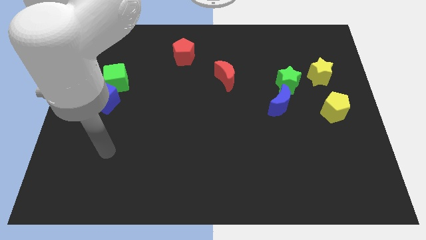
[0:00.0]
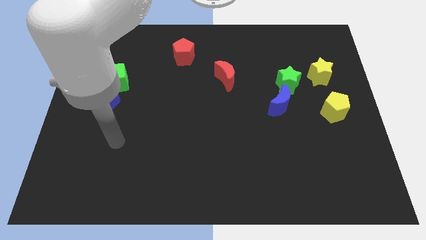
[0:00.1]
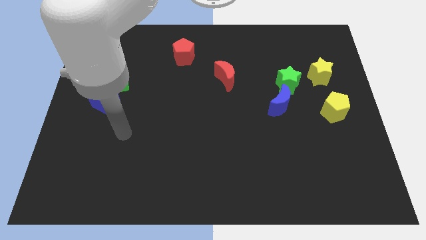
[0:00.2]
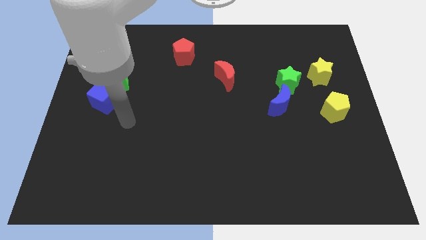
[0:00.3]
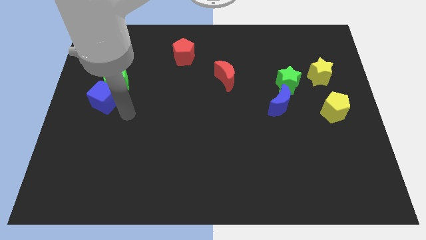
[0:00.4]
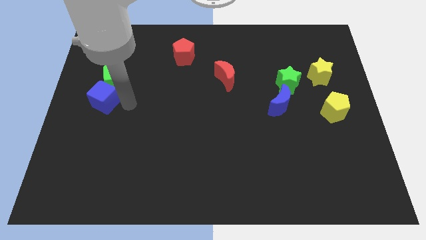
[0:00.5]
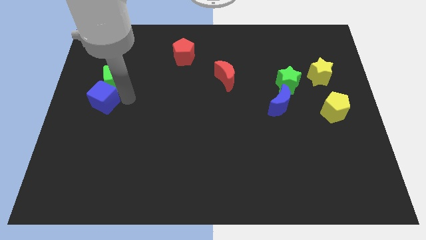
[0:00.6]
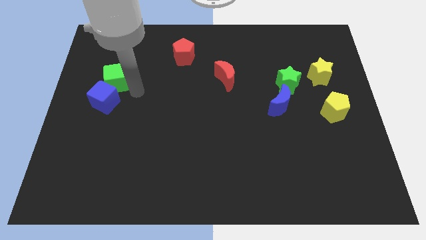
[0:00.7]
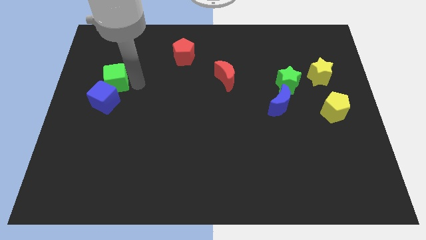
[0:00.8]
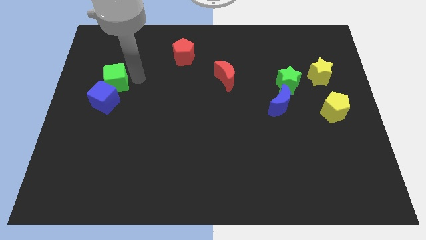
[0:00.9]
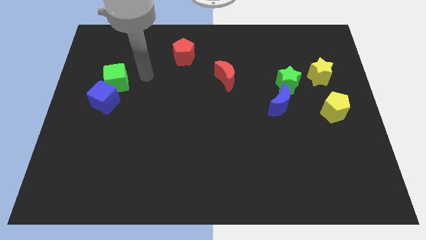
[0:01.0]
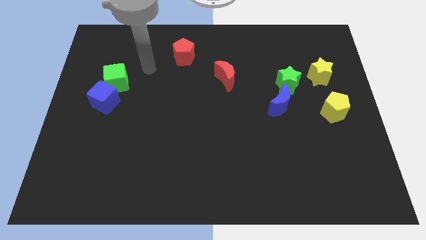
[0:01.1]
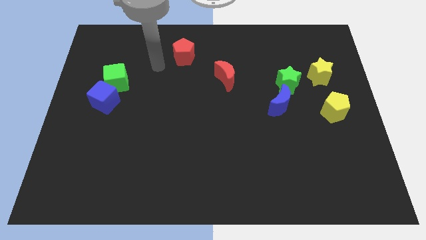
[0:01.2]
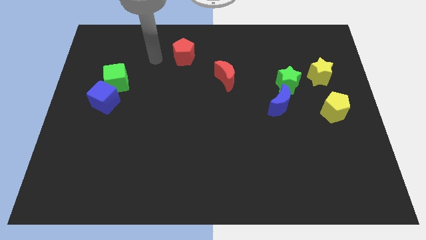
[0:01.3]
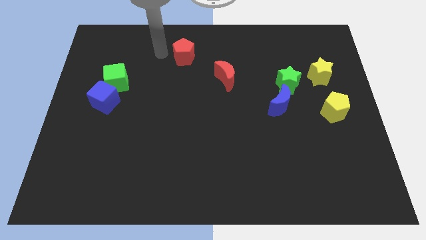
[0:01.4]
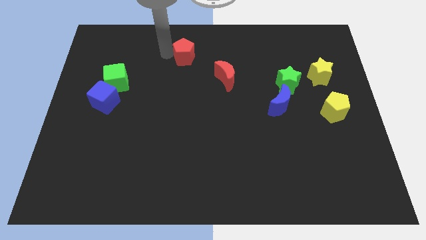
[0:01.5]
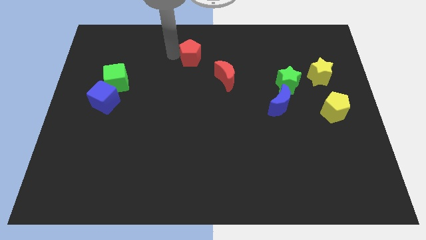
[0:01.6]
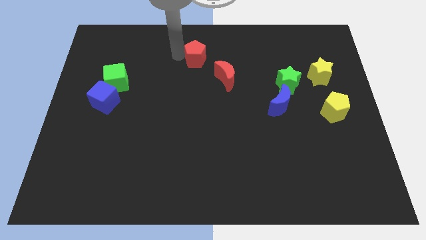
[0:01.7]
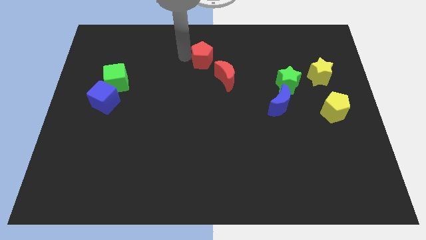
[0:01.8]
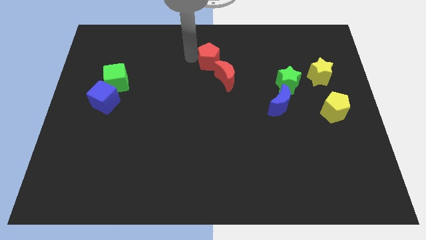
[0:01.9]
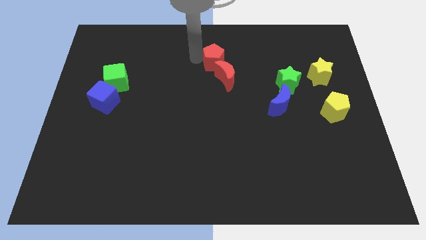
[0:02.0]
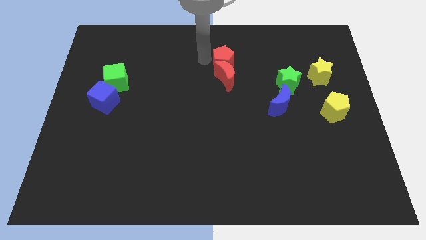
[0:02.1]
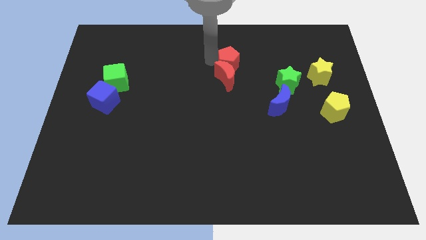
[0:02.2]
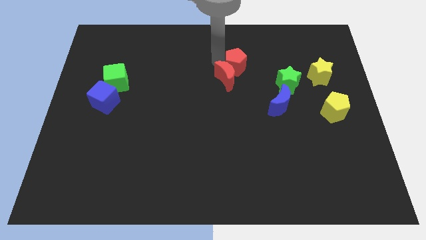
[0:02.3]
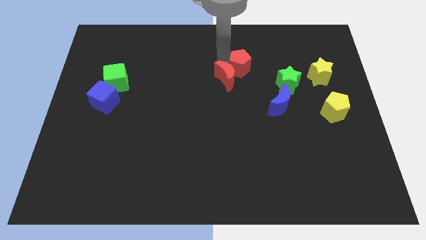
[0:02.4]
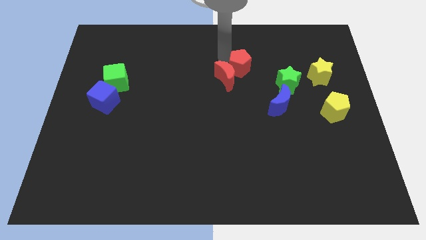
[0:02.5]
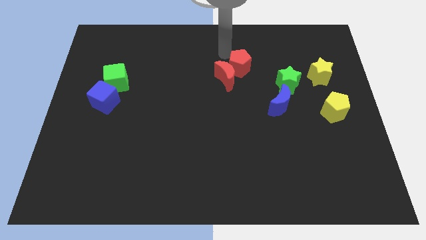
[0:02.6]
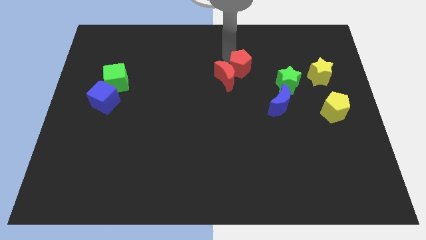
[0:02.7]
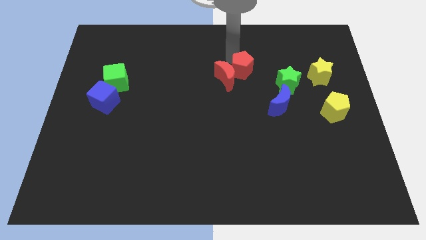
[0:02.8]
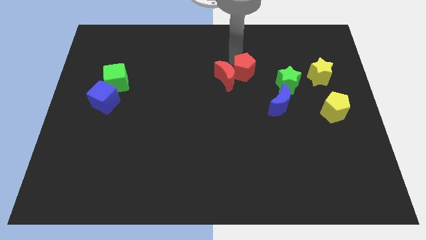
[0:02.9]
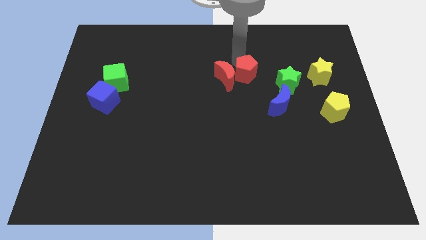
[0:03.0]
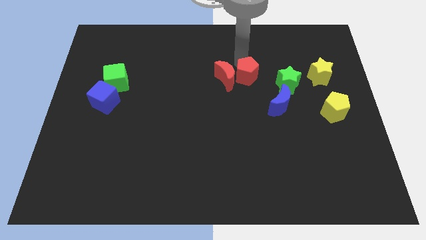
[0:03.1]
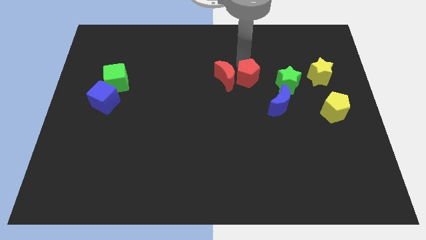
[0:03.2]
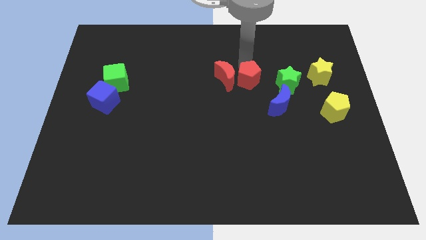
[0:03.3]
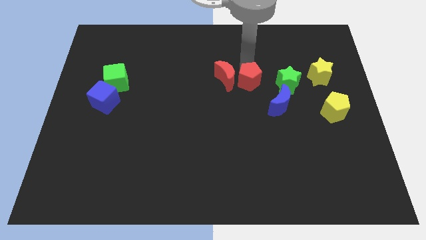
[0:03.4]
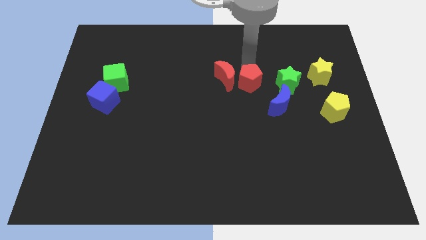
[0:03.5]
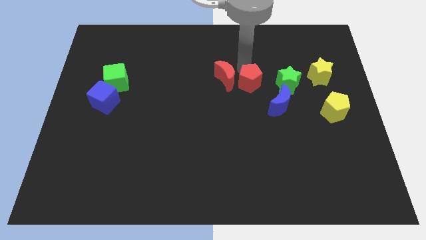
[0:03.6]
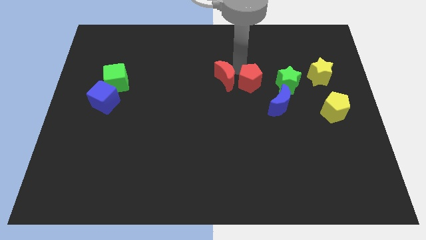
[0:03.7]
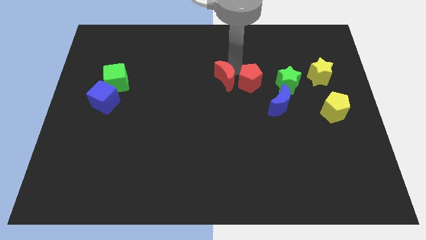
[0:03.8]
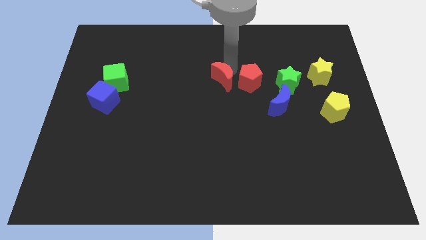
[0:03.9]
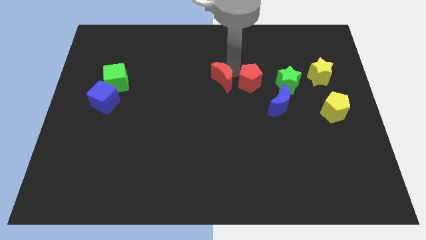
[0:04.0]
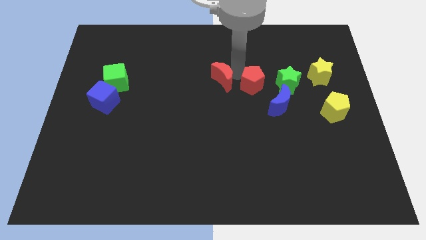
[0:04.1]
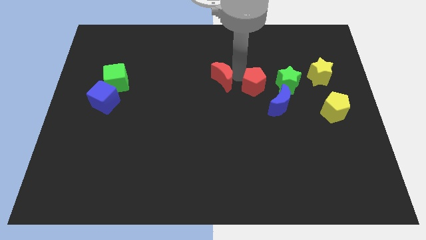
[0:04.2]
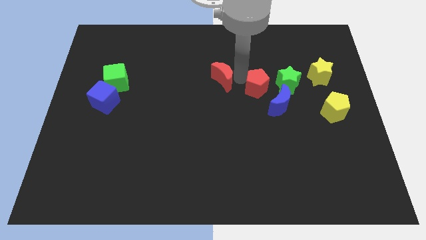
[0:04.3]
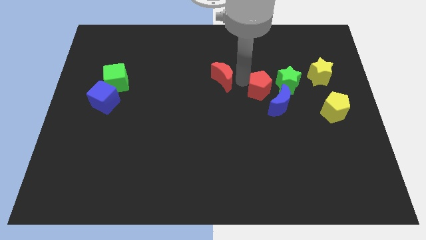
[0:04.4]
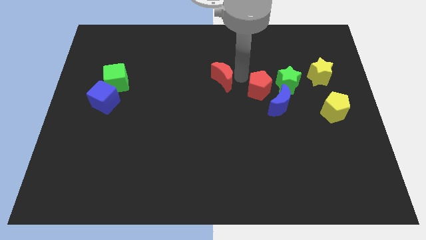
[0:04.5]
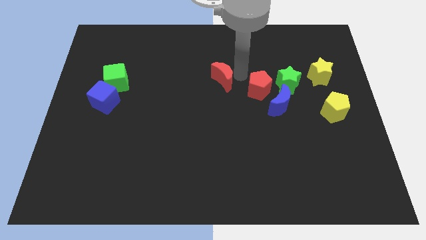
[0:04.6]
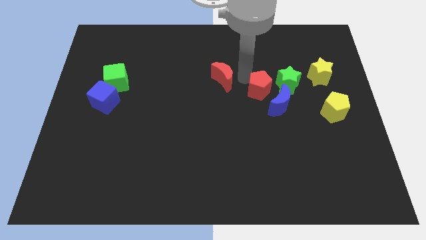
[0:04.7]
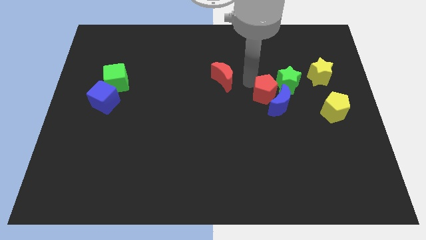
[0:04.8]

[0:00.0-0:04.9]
move the red pentagon to the blue moon

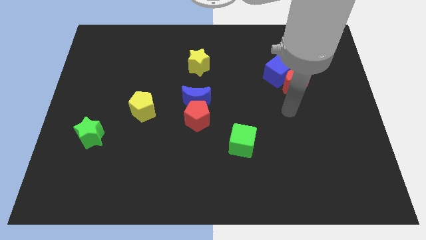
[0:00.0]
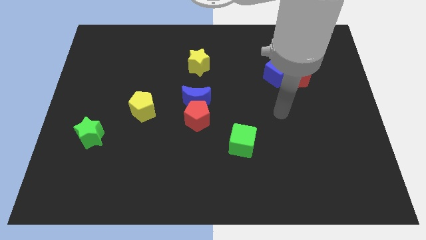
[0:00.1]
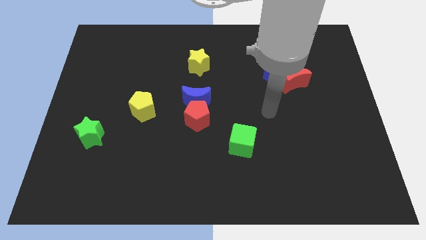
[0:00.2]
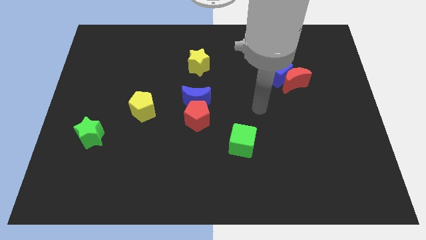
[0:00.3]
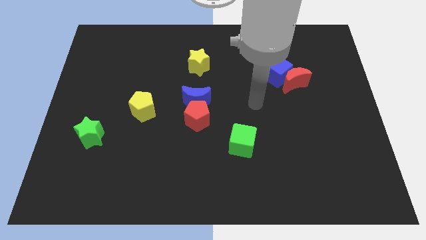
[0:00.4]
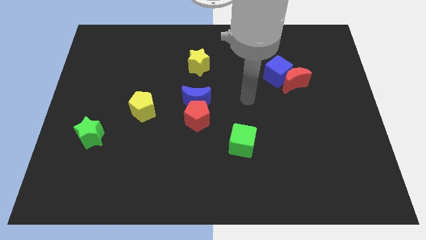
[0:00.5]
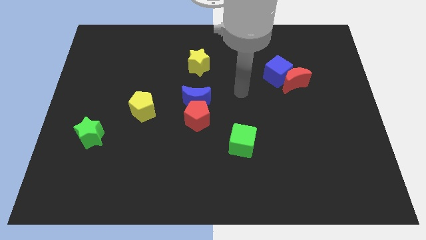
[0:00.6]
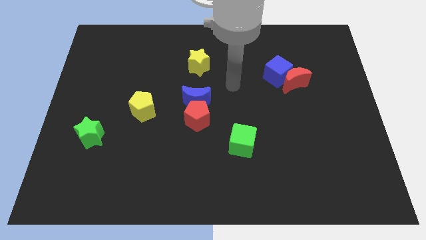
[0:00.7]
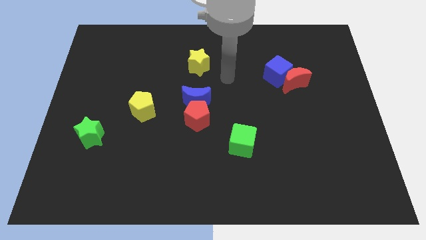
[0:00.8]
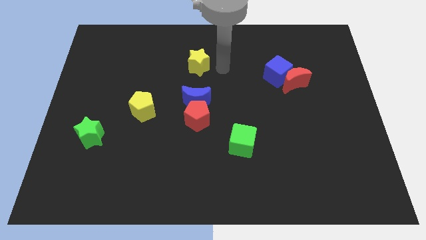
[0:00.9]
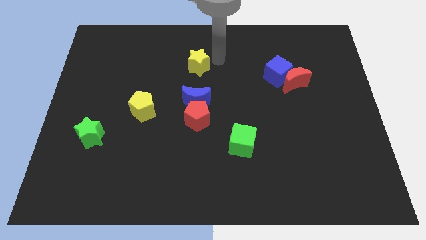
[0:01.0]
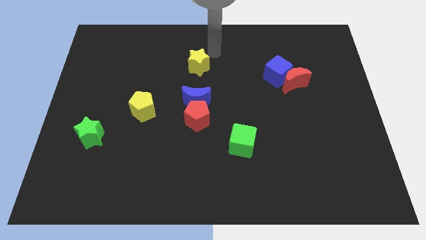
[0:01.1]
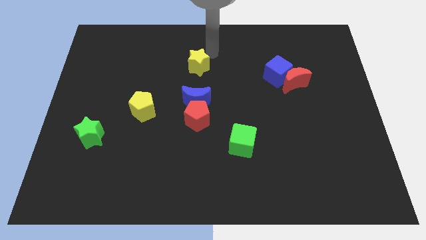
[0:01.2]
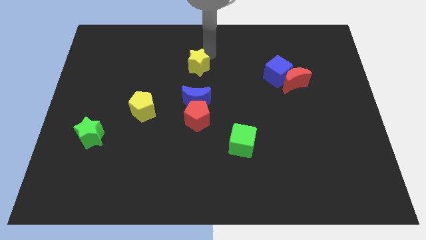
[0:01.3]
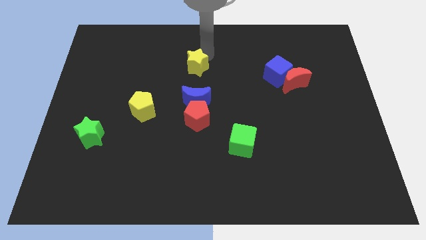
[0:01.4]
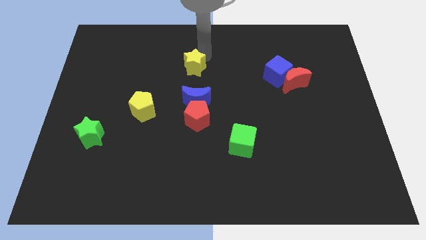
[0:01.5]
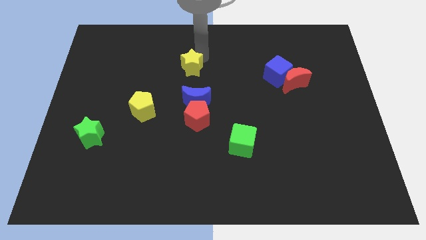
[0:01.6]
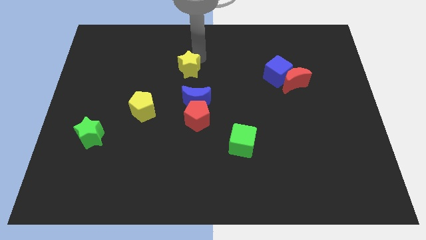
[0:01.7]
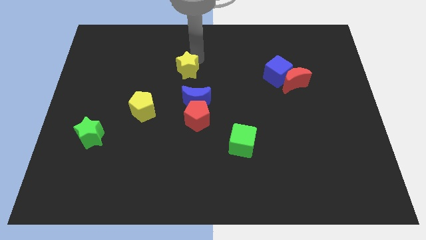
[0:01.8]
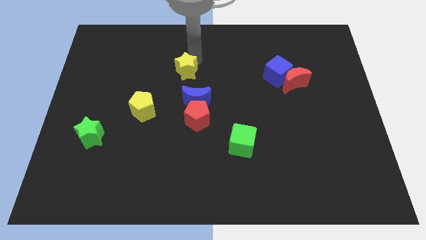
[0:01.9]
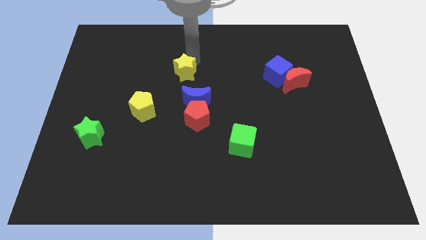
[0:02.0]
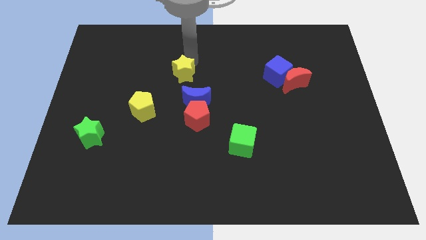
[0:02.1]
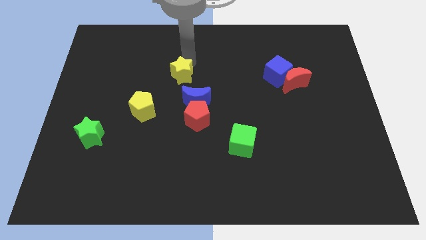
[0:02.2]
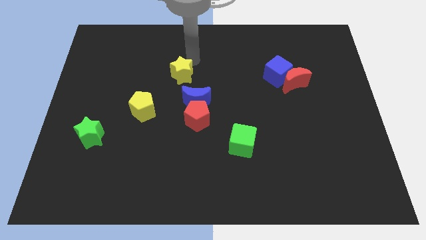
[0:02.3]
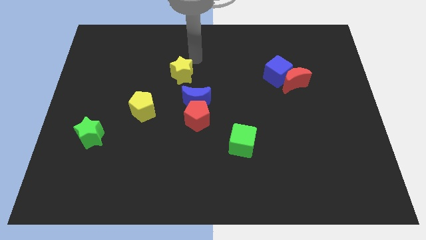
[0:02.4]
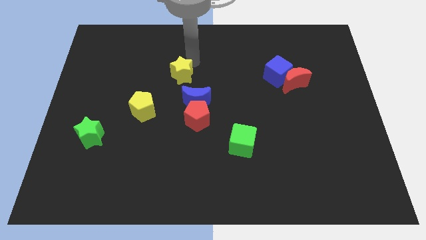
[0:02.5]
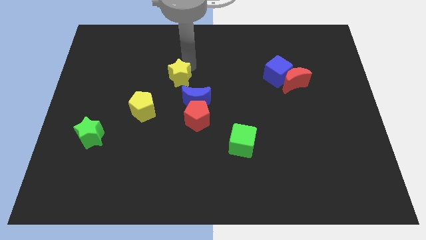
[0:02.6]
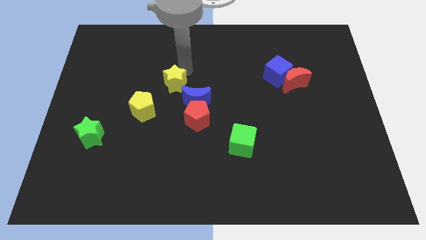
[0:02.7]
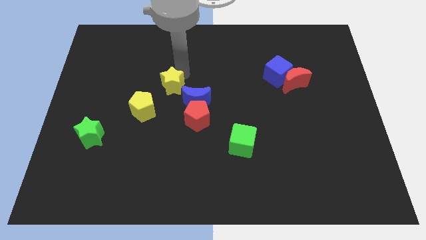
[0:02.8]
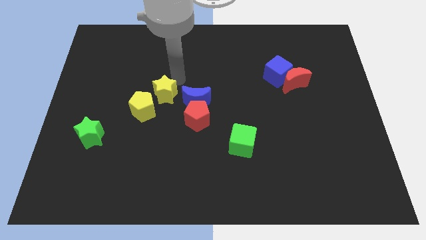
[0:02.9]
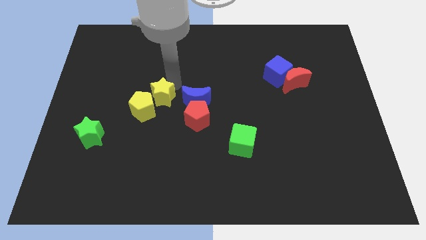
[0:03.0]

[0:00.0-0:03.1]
slide the yellow star next to the yellow pentagon
